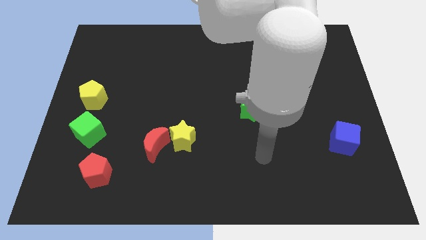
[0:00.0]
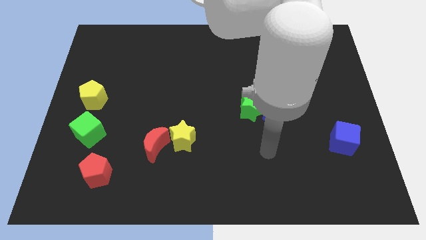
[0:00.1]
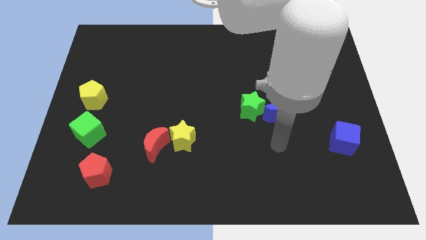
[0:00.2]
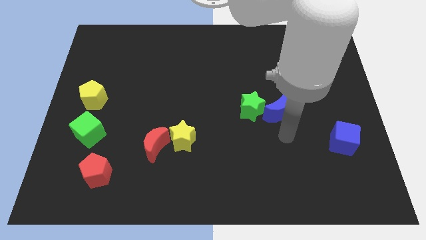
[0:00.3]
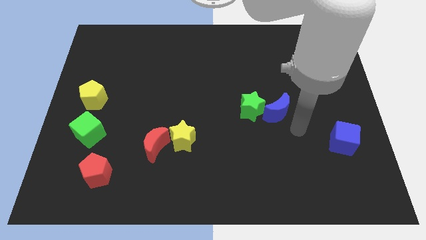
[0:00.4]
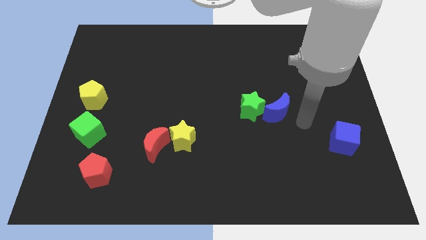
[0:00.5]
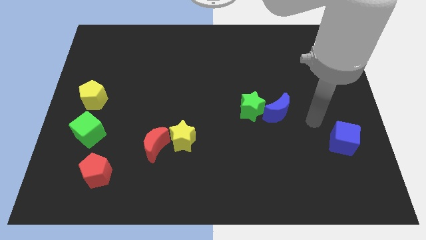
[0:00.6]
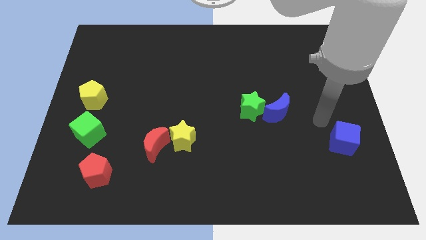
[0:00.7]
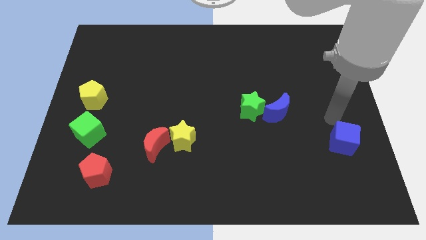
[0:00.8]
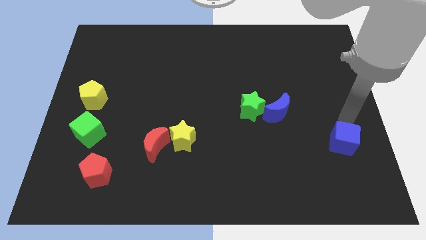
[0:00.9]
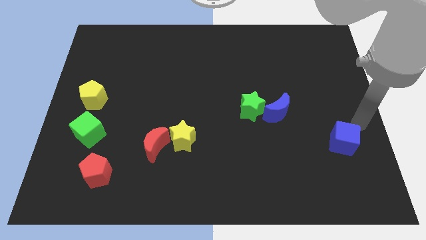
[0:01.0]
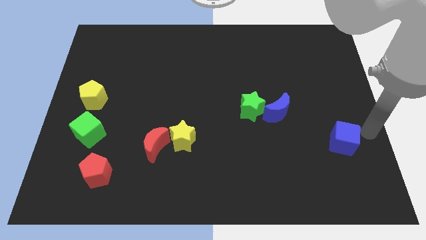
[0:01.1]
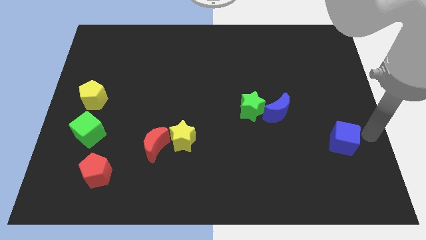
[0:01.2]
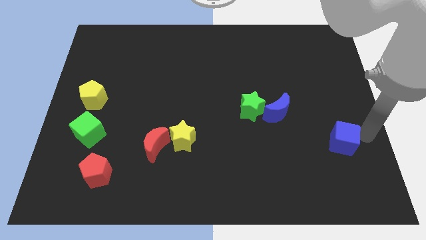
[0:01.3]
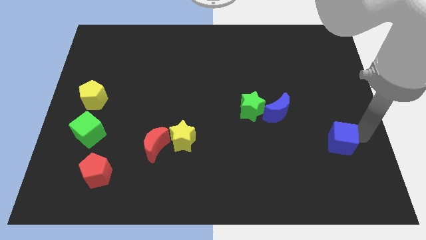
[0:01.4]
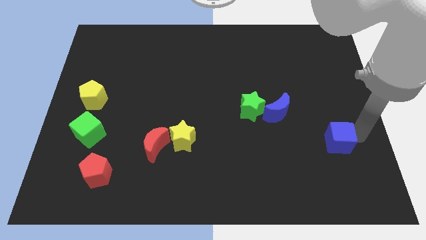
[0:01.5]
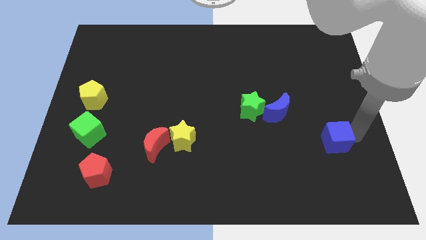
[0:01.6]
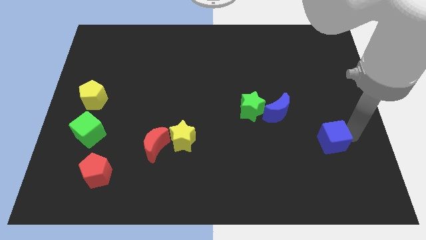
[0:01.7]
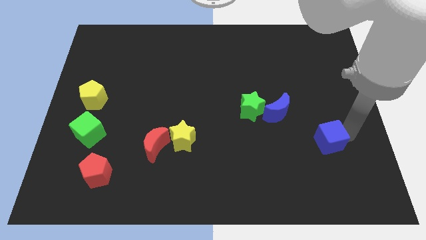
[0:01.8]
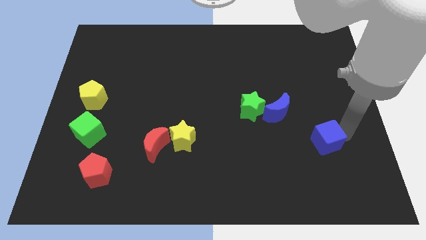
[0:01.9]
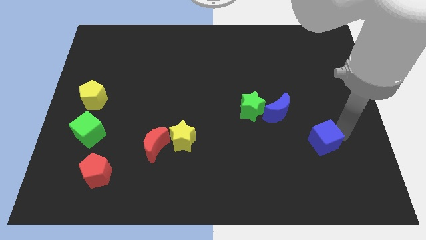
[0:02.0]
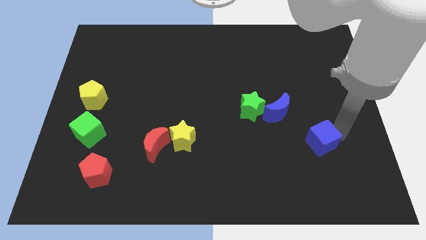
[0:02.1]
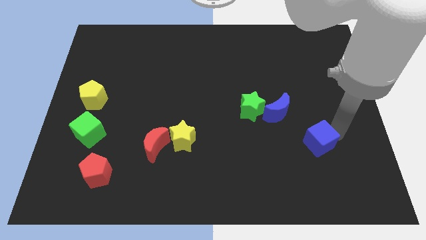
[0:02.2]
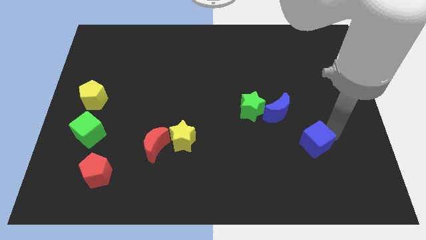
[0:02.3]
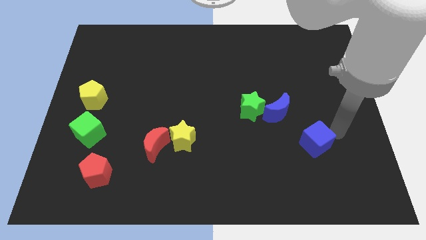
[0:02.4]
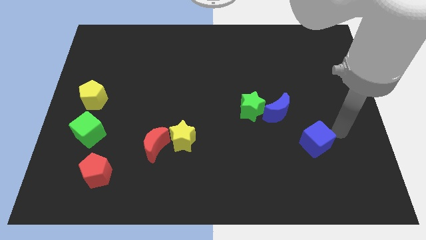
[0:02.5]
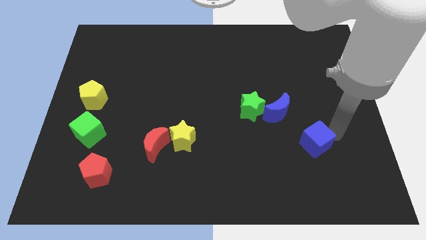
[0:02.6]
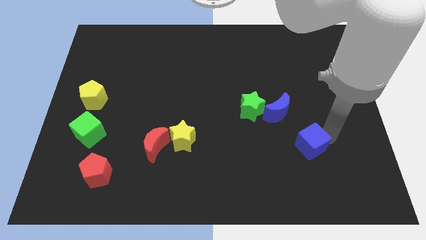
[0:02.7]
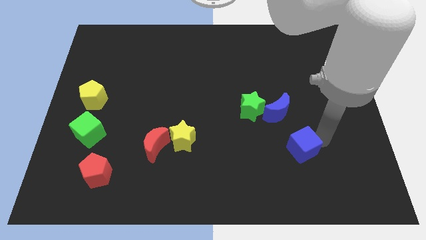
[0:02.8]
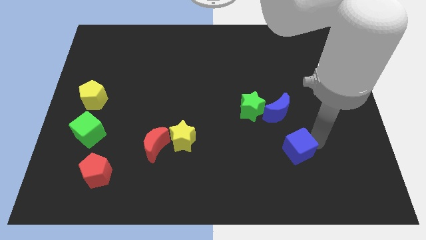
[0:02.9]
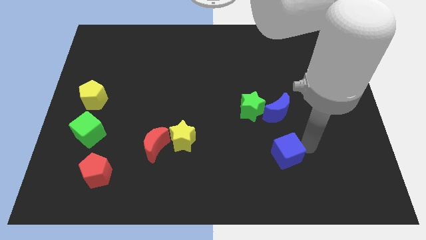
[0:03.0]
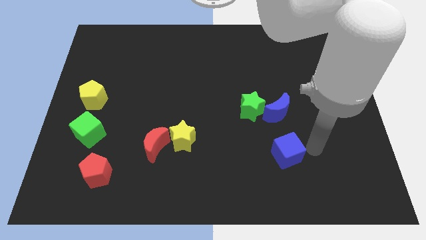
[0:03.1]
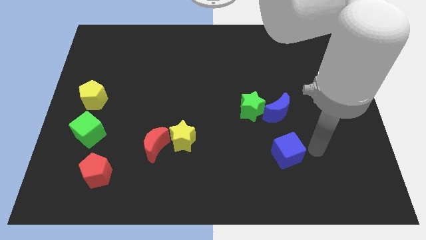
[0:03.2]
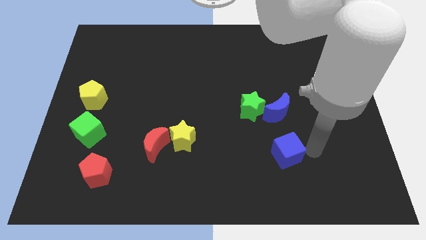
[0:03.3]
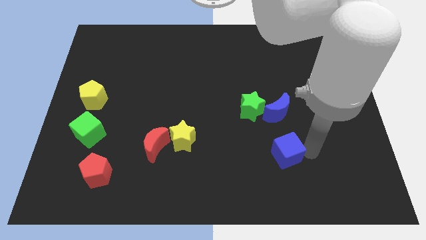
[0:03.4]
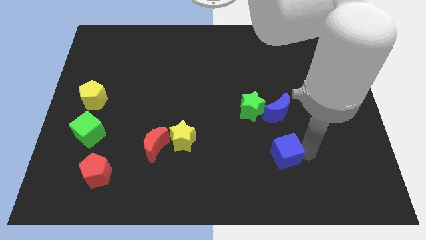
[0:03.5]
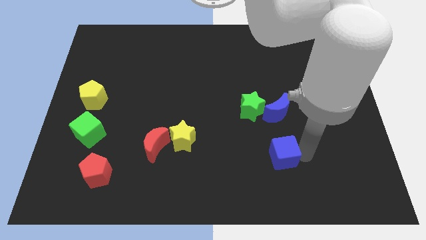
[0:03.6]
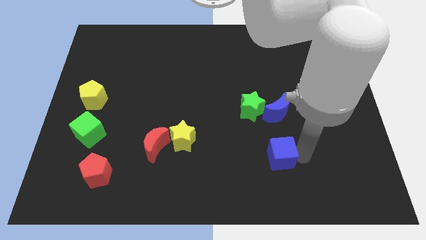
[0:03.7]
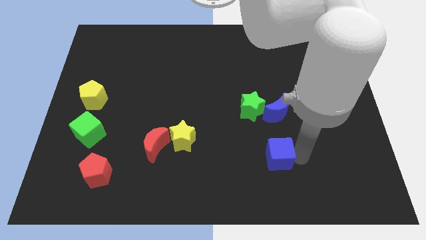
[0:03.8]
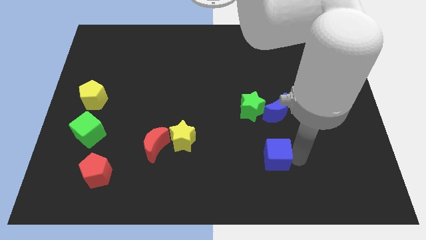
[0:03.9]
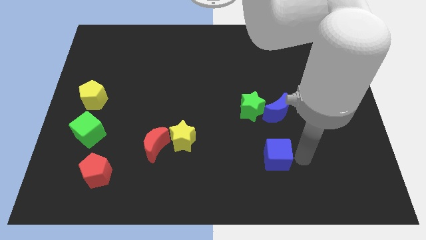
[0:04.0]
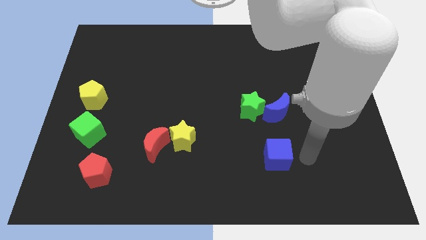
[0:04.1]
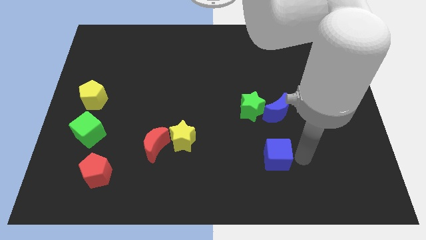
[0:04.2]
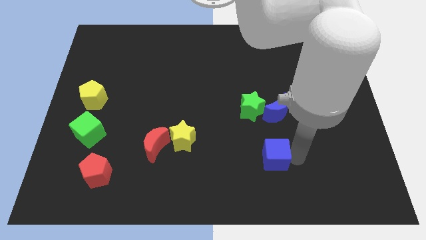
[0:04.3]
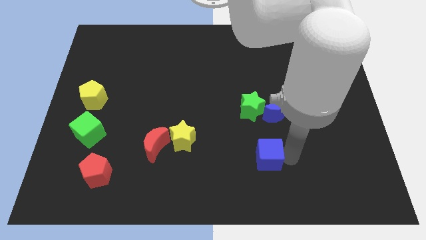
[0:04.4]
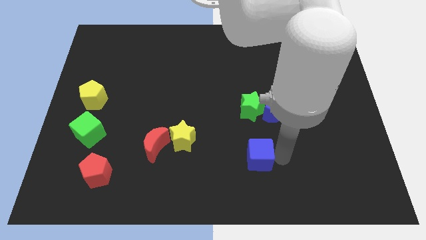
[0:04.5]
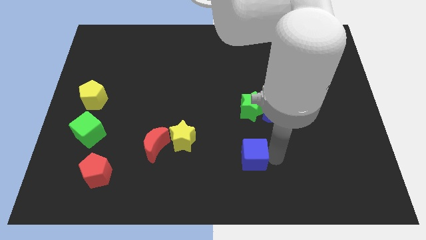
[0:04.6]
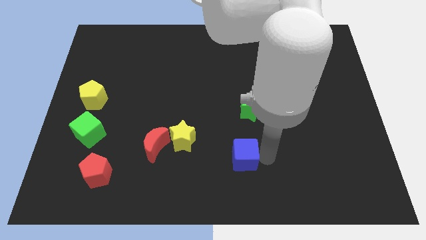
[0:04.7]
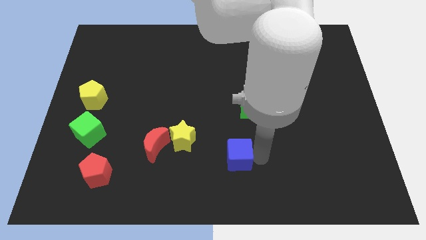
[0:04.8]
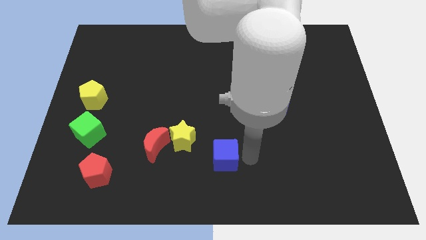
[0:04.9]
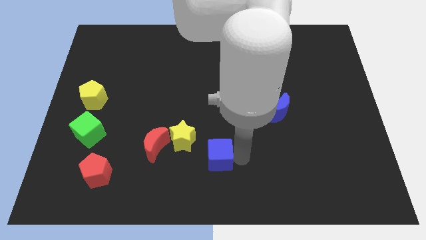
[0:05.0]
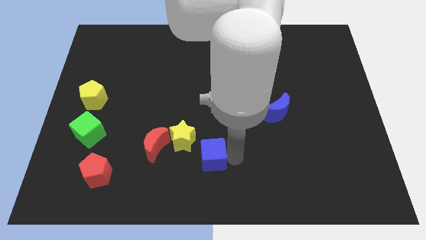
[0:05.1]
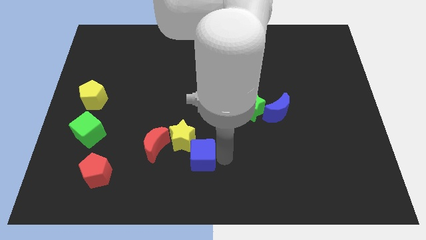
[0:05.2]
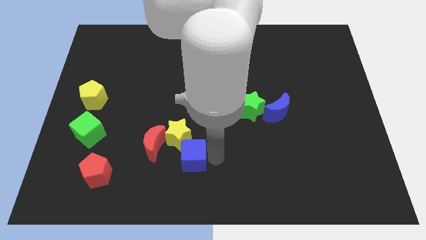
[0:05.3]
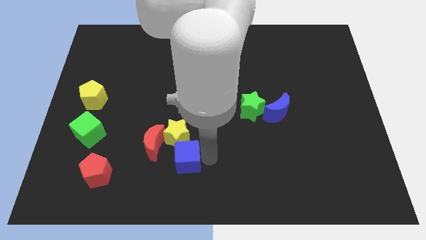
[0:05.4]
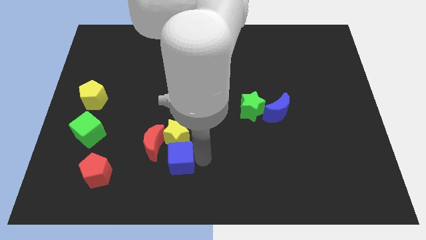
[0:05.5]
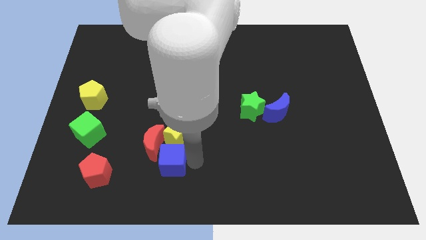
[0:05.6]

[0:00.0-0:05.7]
put the blue cube to the red moon

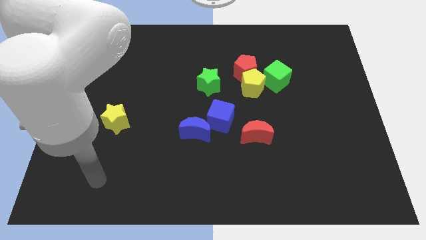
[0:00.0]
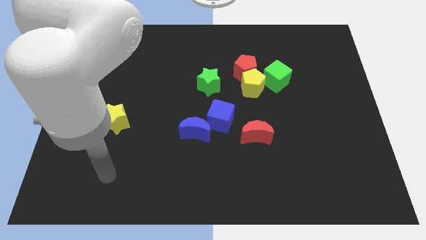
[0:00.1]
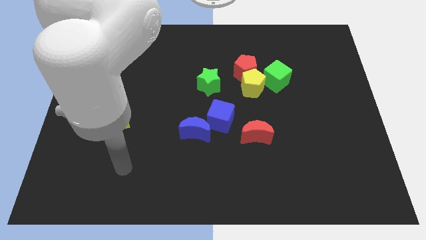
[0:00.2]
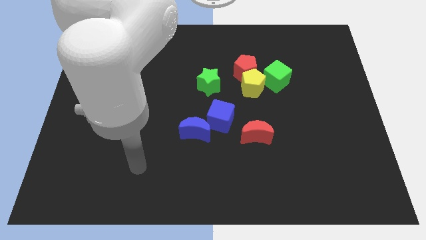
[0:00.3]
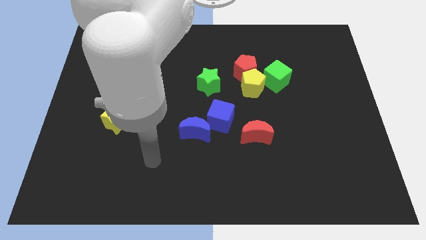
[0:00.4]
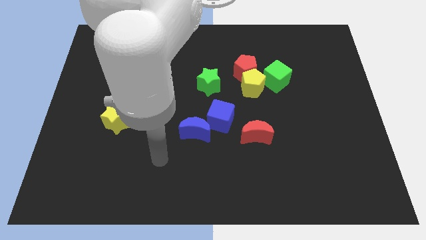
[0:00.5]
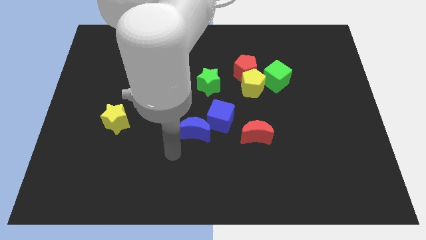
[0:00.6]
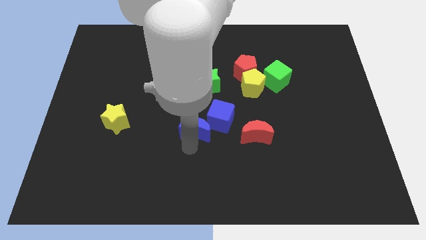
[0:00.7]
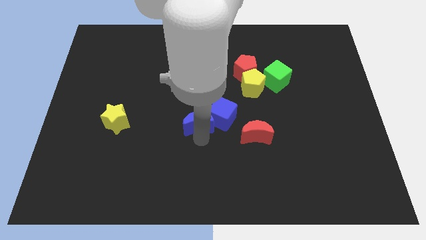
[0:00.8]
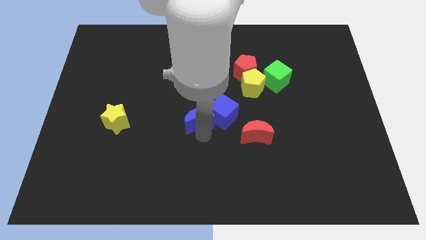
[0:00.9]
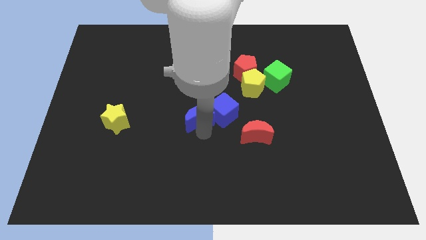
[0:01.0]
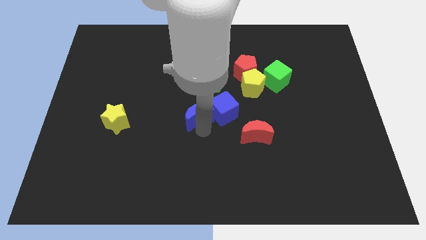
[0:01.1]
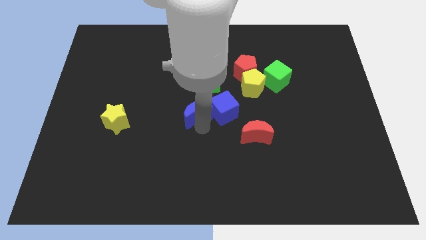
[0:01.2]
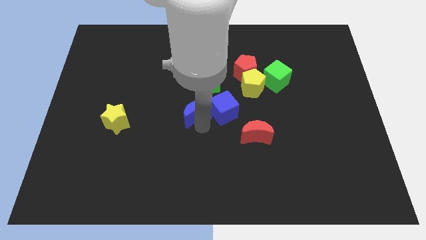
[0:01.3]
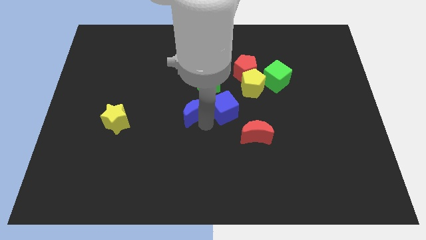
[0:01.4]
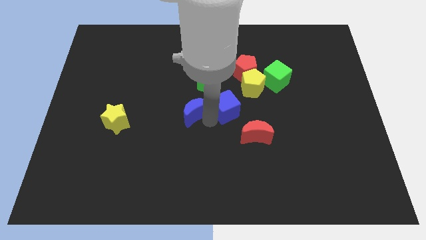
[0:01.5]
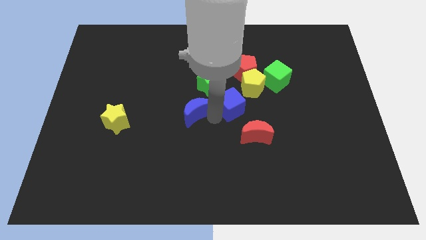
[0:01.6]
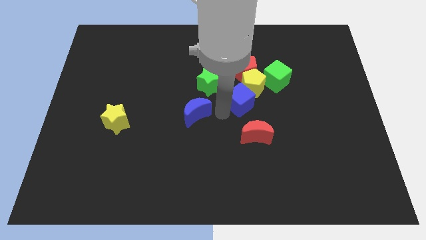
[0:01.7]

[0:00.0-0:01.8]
slide the blue cube close to the yellow pentagon
